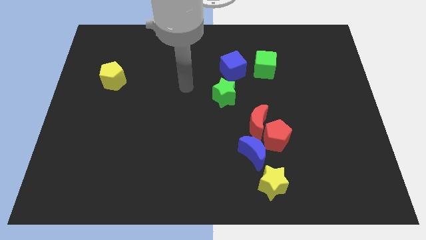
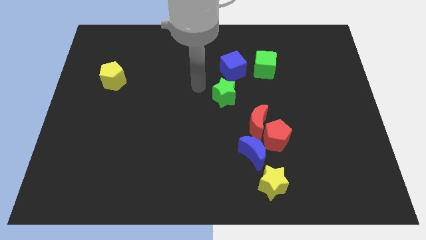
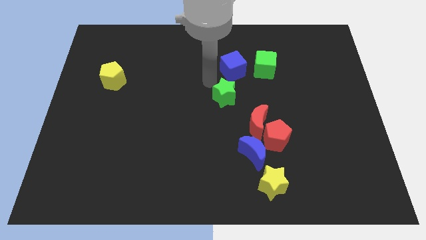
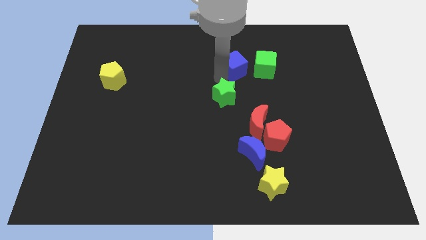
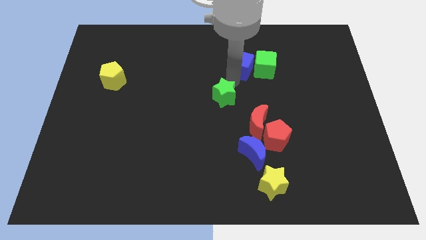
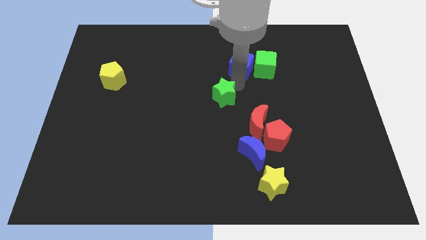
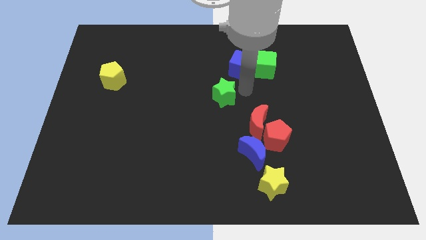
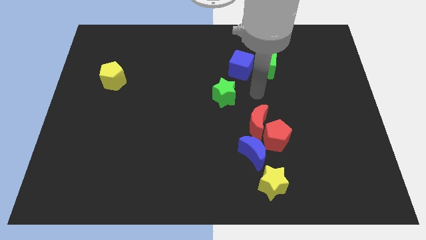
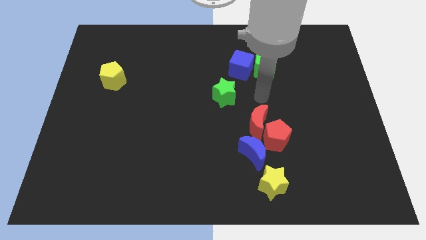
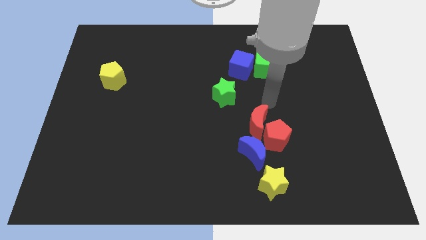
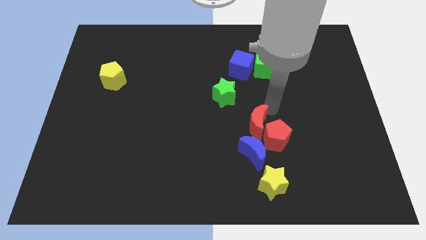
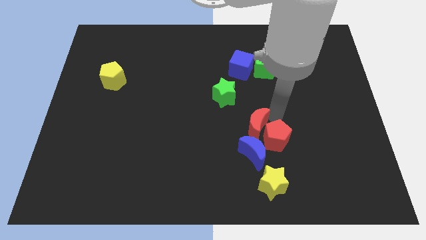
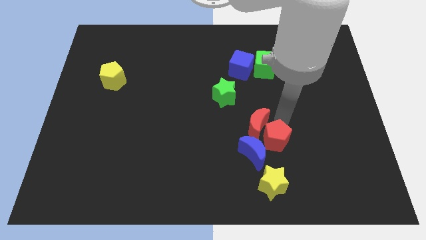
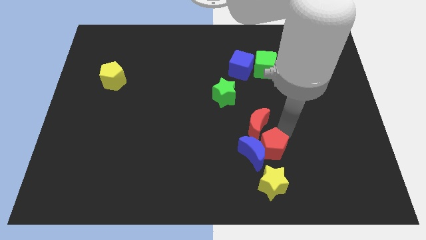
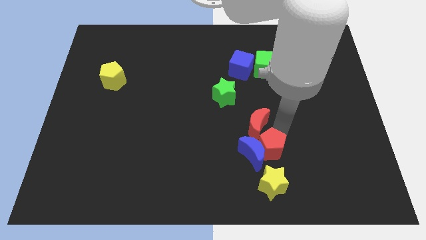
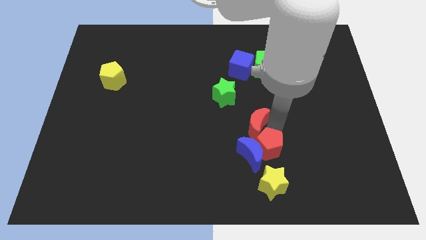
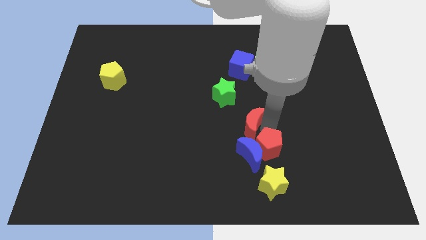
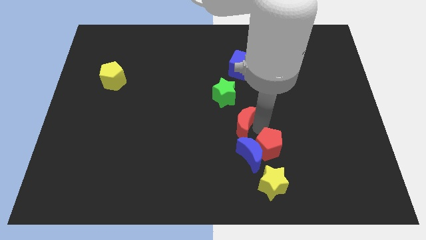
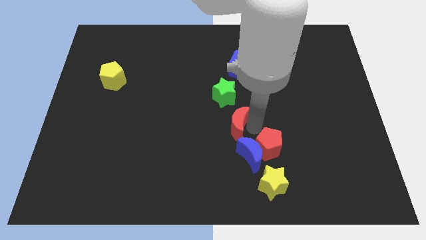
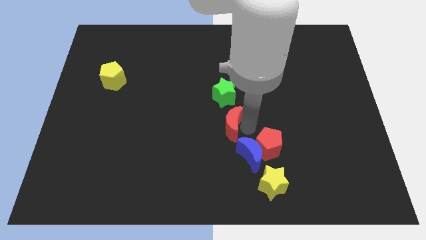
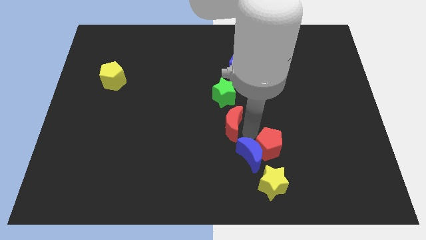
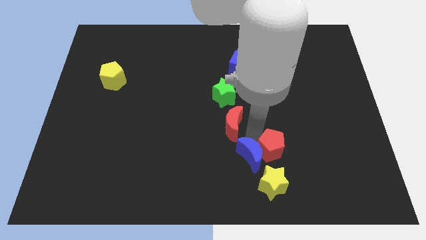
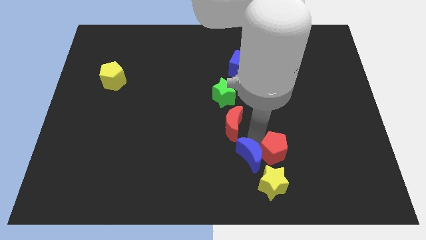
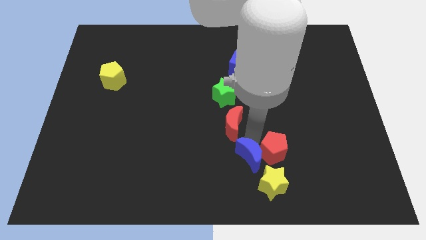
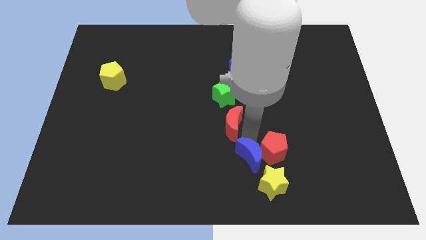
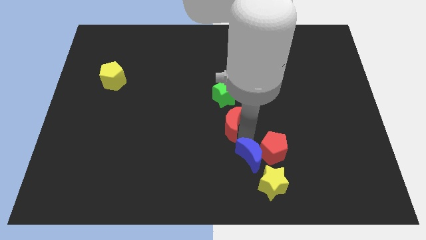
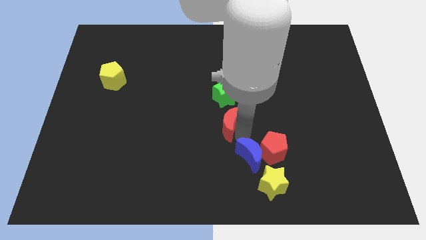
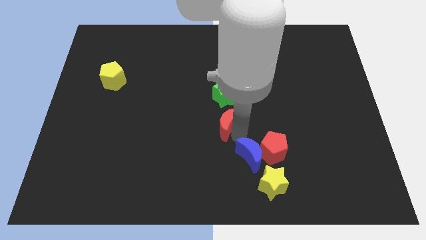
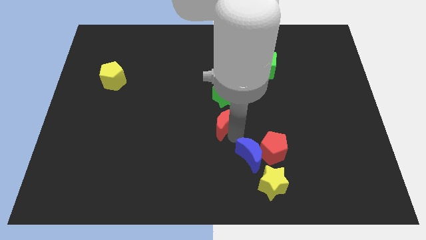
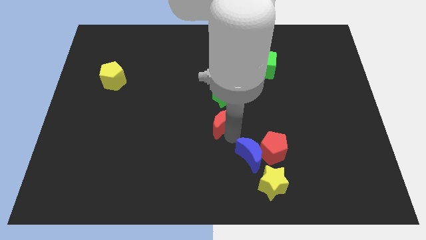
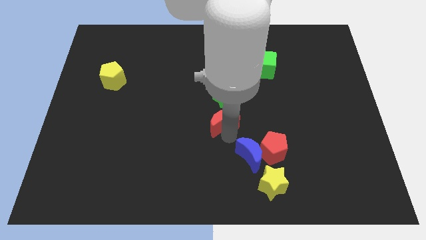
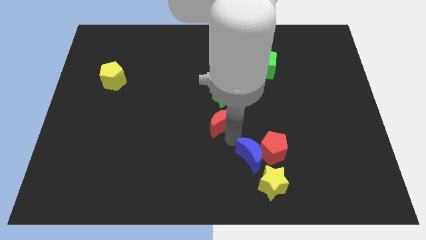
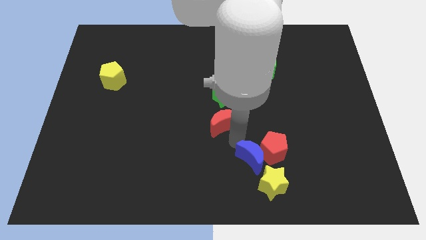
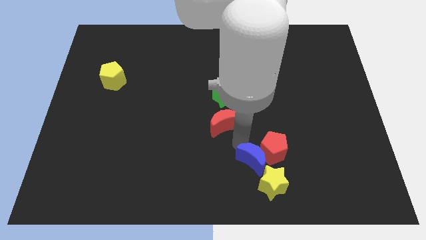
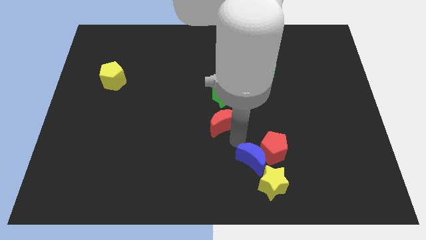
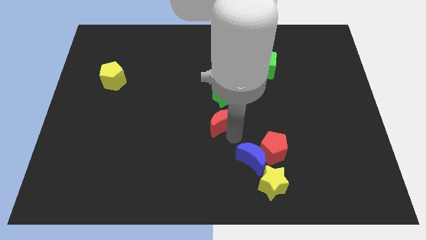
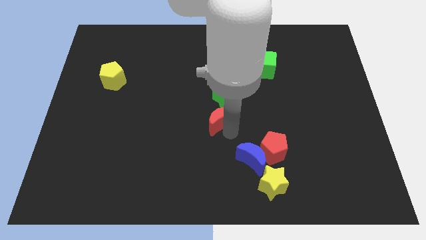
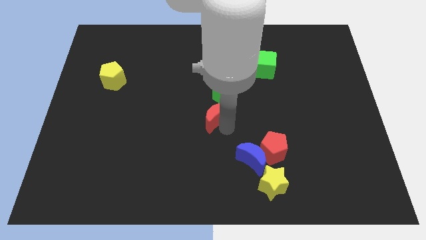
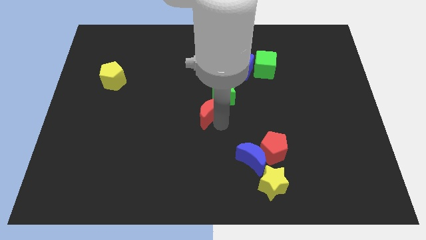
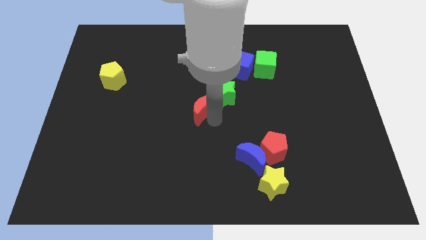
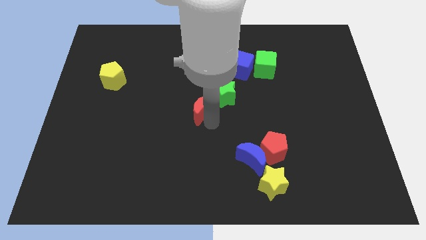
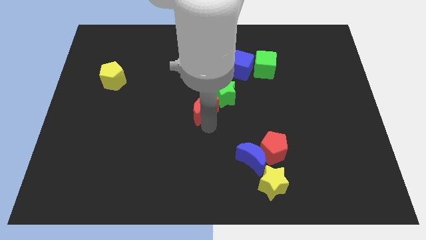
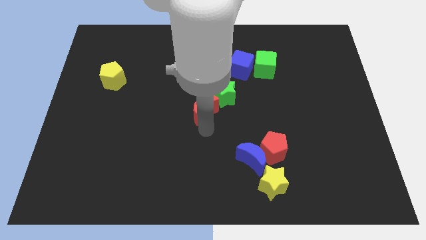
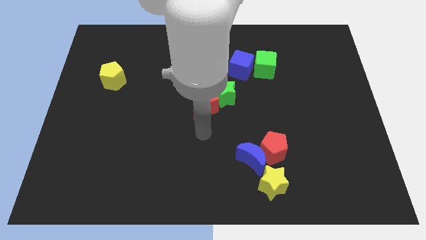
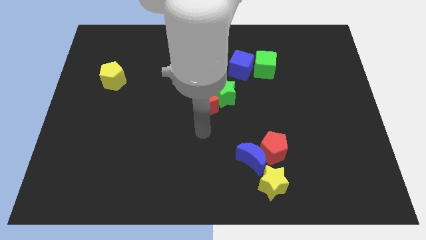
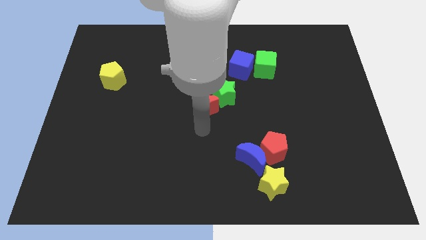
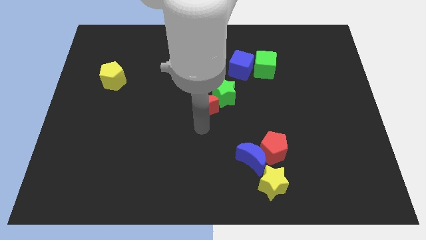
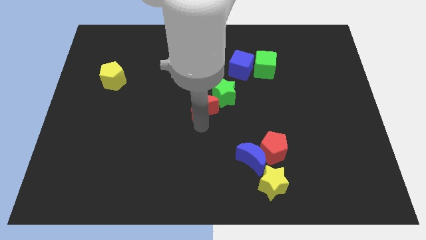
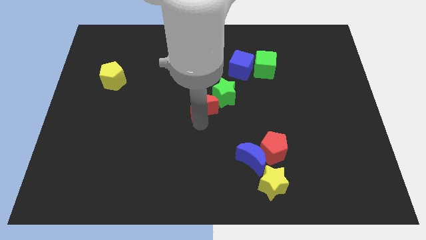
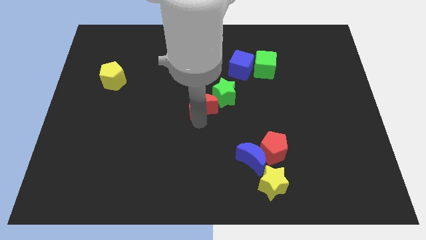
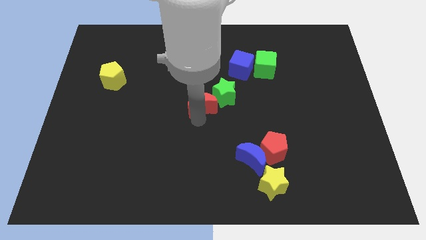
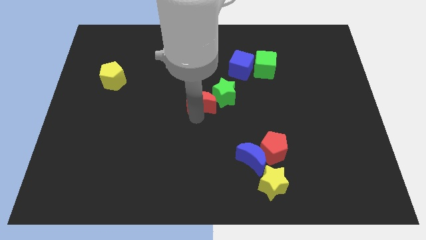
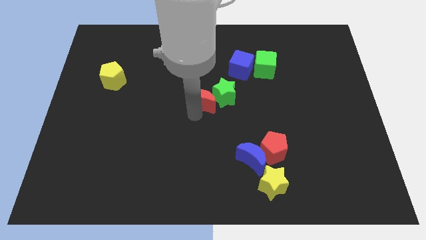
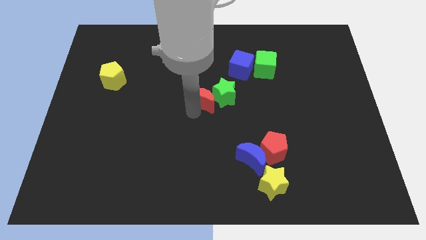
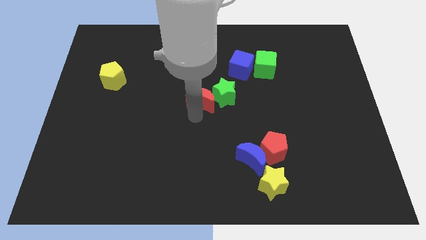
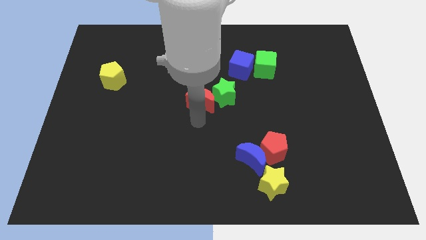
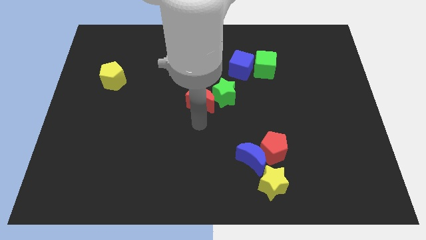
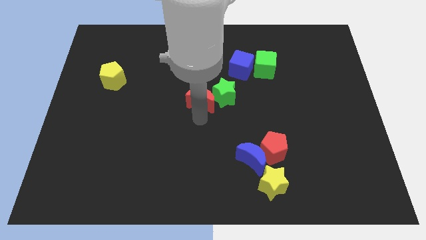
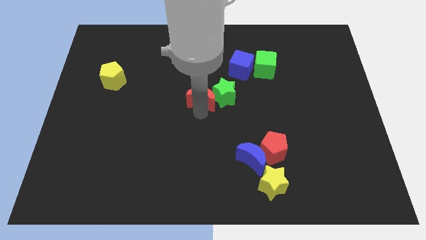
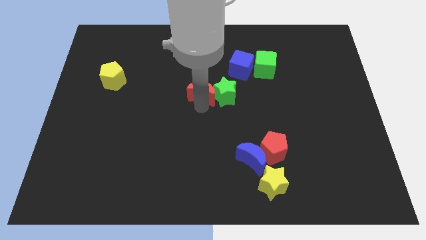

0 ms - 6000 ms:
slide the red moon to the top left side of the green star

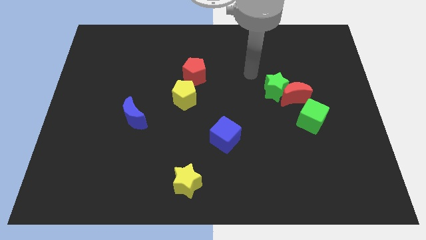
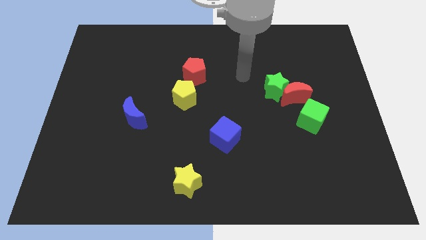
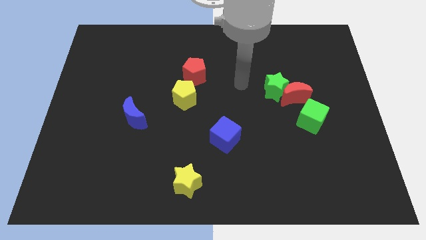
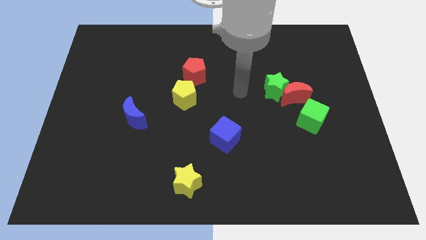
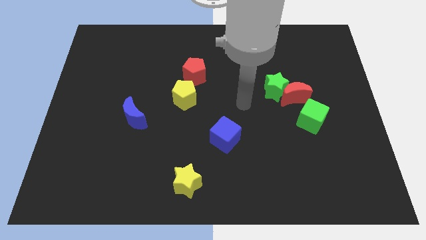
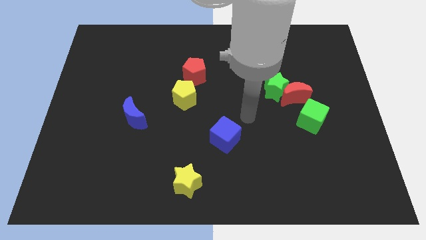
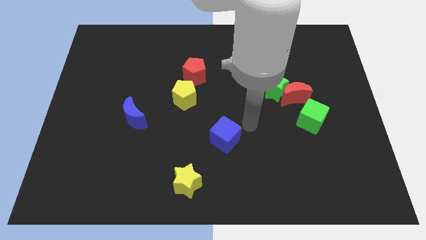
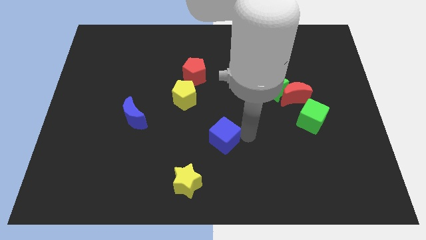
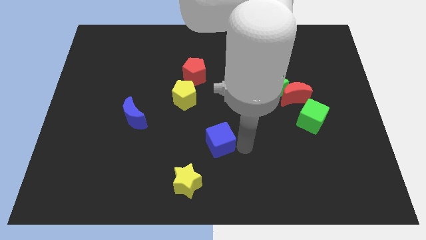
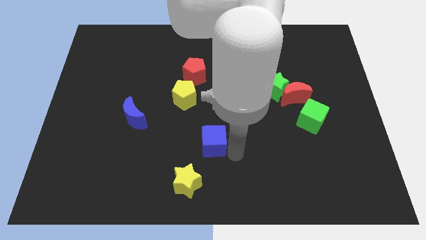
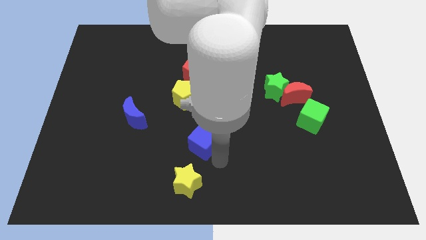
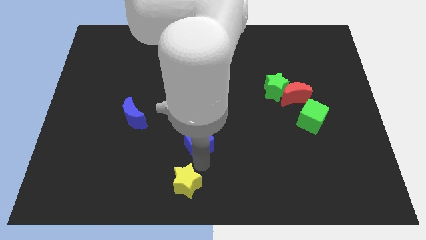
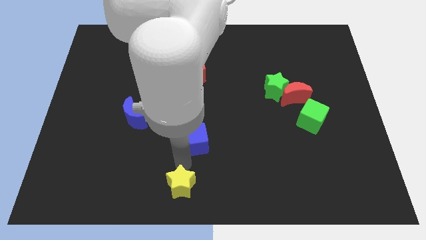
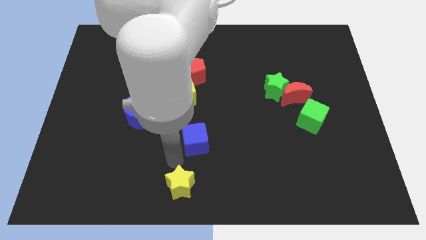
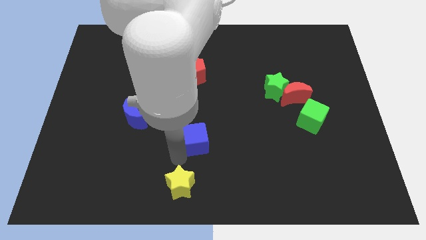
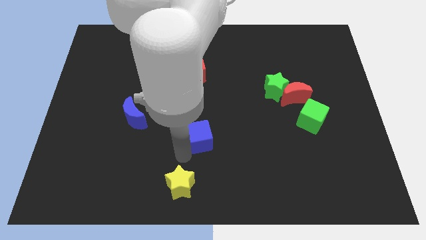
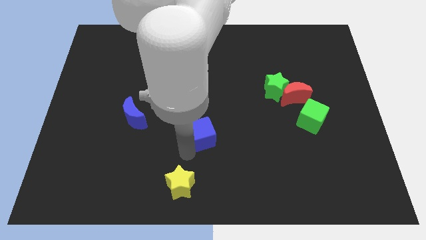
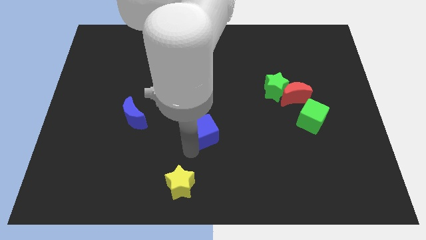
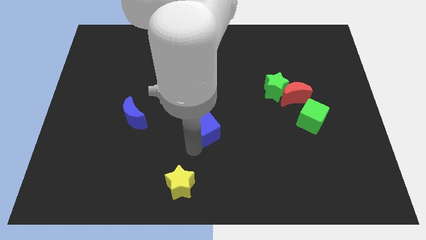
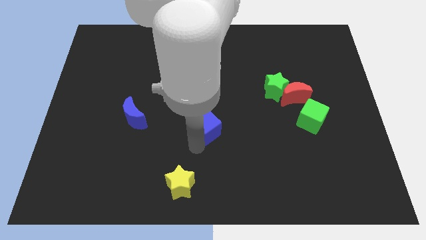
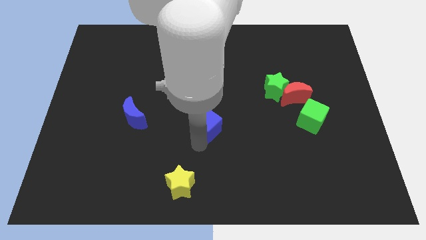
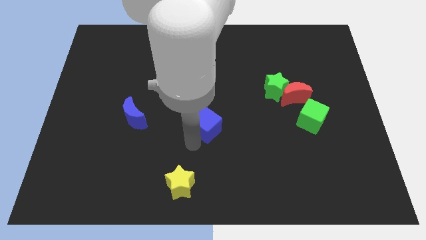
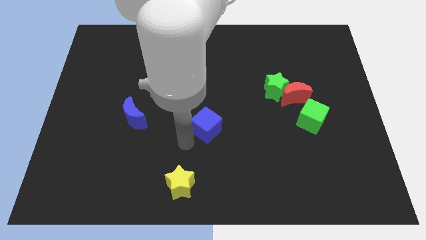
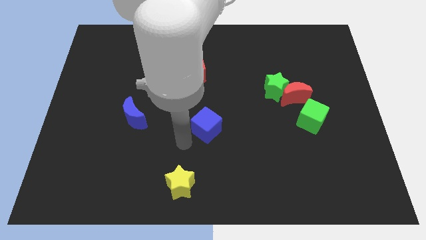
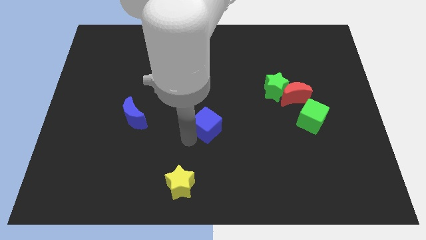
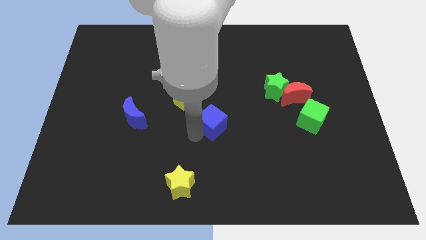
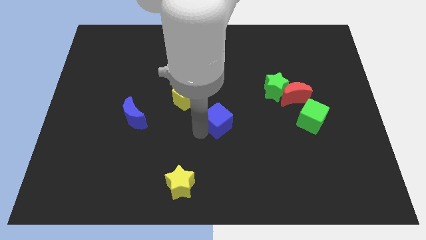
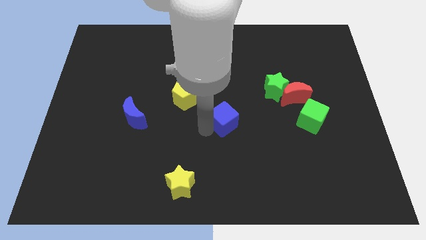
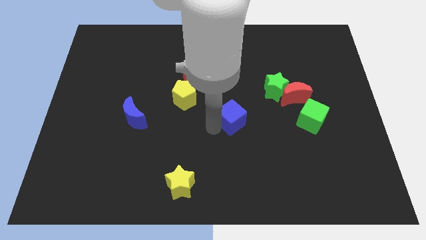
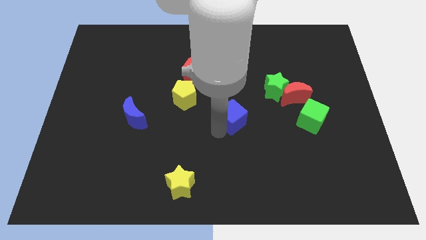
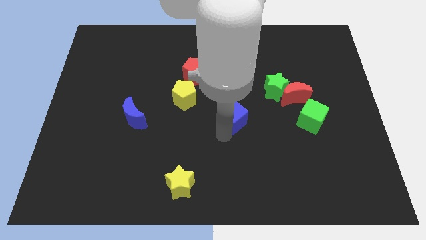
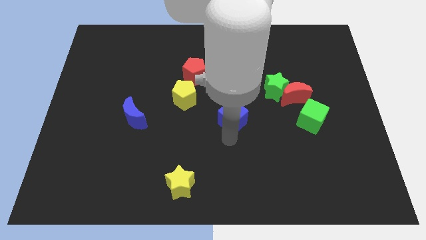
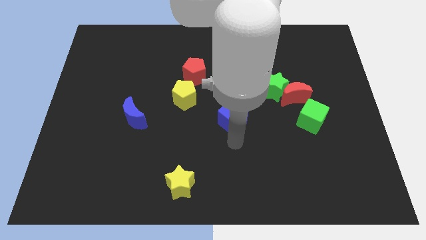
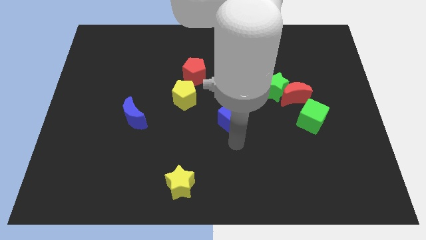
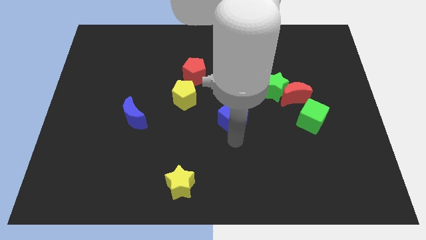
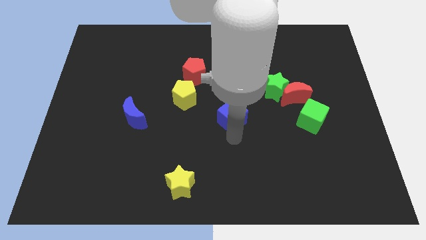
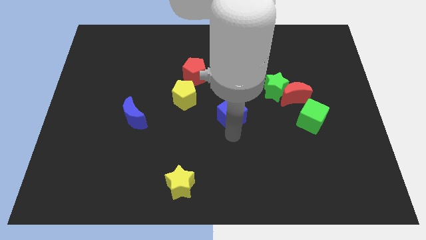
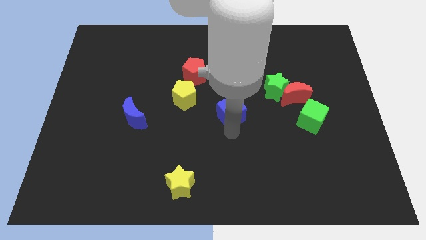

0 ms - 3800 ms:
put the blue cube to the right of the yellow pentagon
